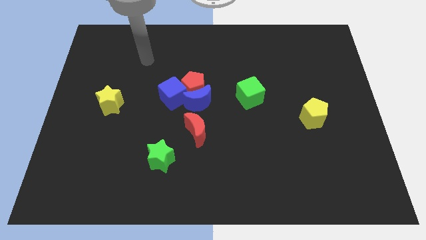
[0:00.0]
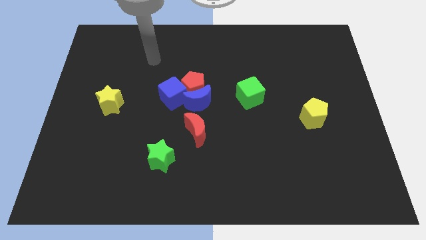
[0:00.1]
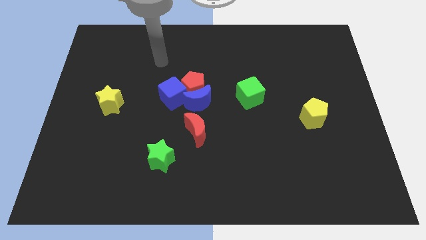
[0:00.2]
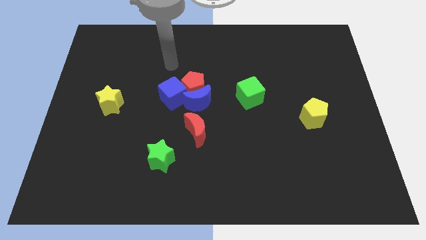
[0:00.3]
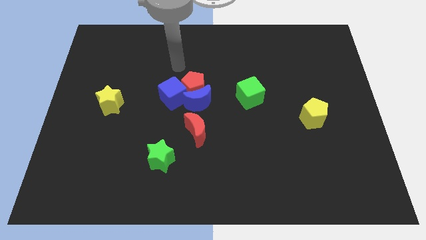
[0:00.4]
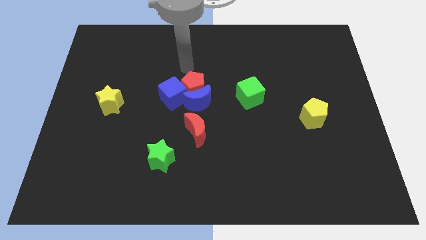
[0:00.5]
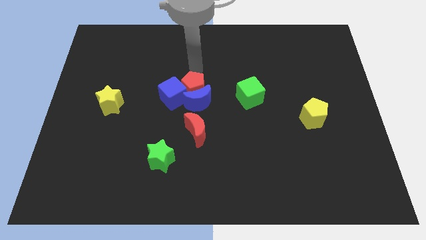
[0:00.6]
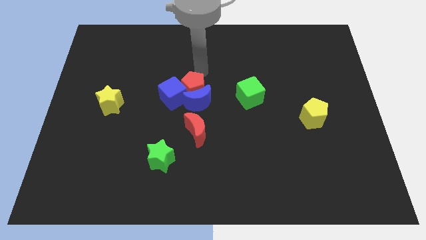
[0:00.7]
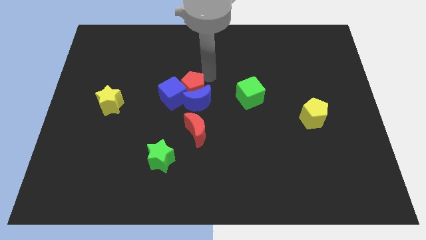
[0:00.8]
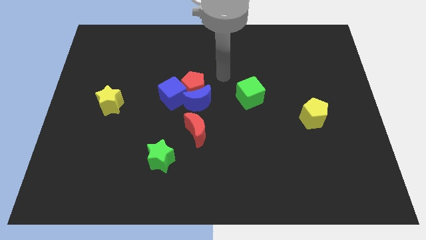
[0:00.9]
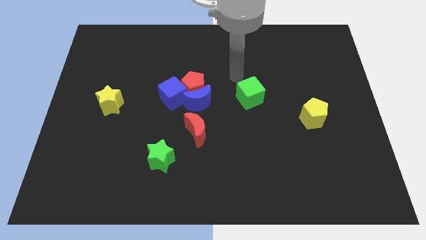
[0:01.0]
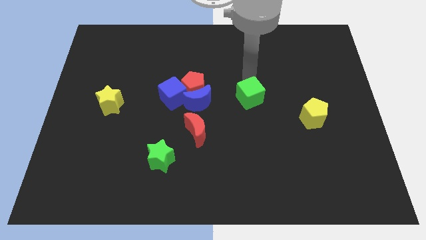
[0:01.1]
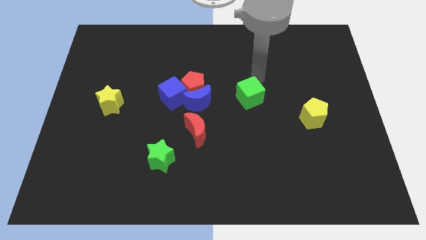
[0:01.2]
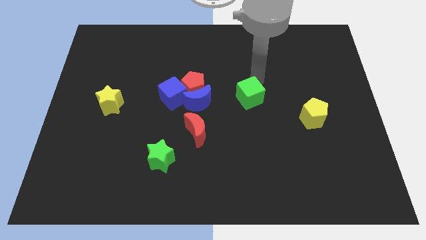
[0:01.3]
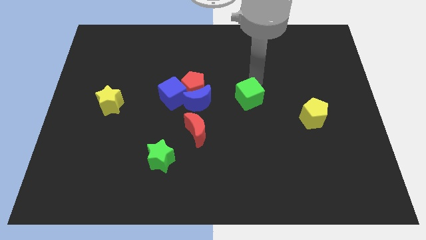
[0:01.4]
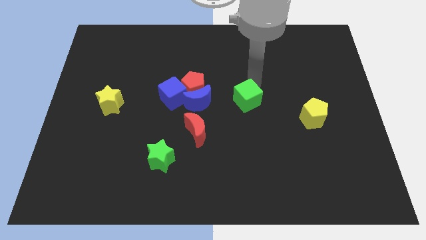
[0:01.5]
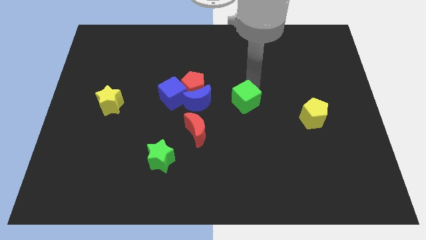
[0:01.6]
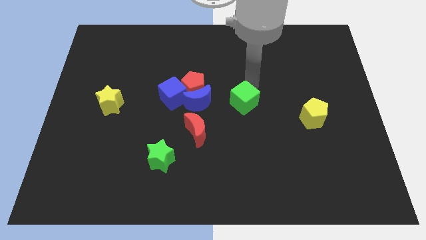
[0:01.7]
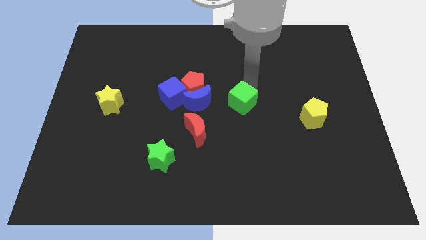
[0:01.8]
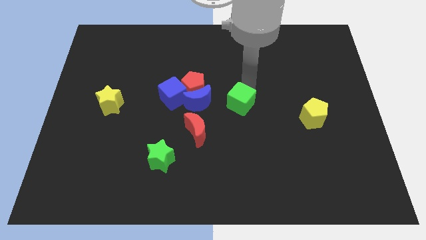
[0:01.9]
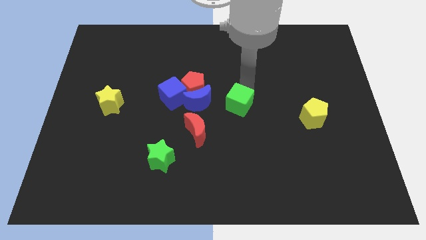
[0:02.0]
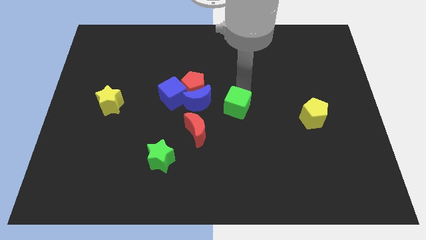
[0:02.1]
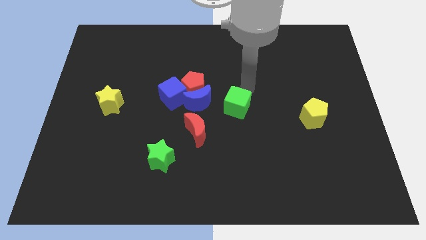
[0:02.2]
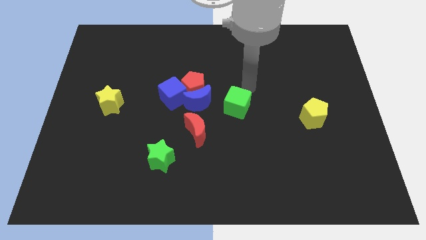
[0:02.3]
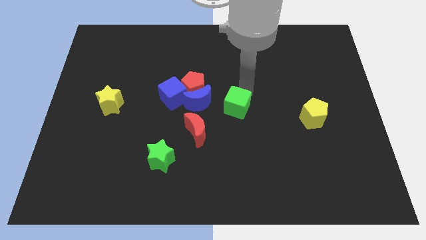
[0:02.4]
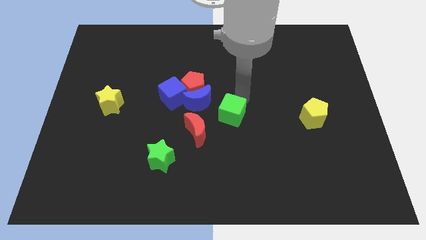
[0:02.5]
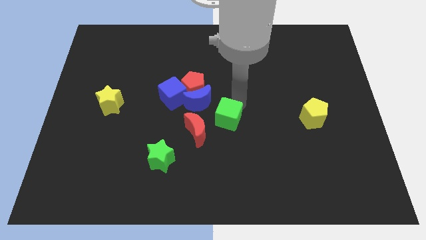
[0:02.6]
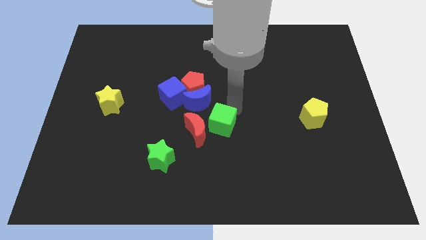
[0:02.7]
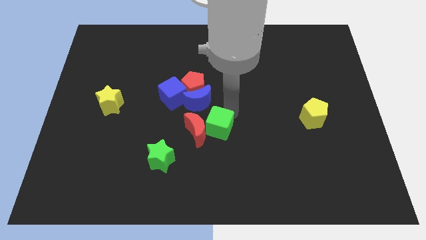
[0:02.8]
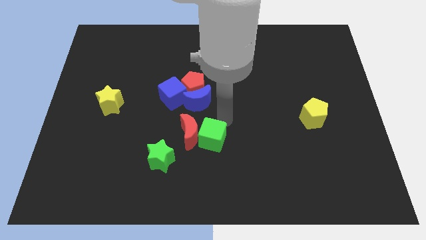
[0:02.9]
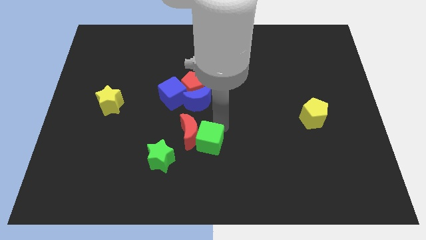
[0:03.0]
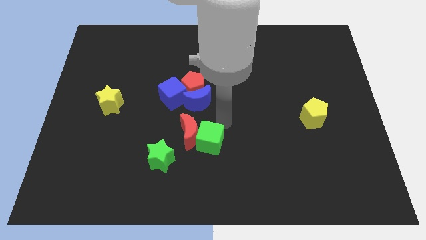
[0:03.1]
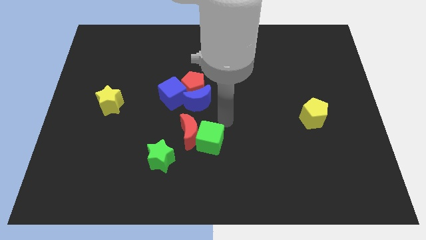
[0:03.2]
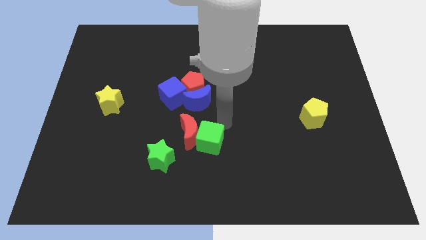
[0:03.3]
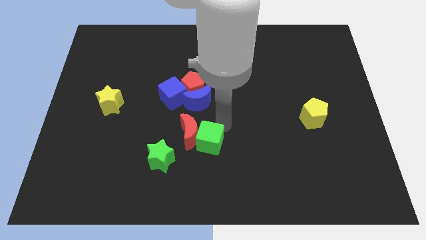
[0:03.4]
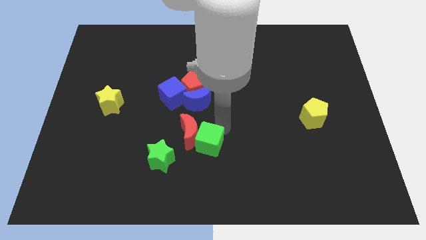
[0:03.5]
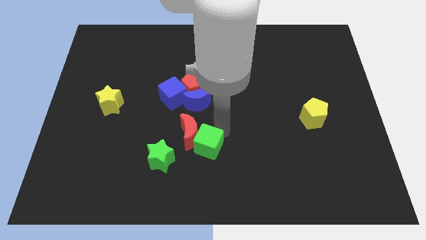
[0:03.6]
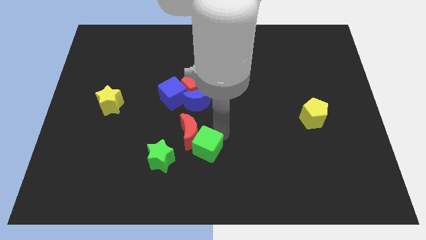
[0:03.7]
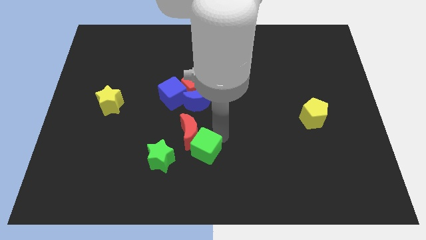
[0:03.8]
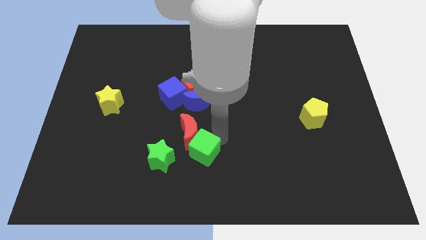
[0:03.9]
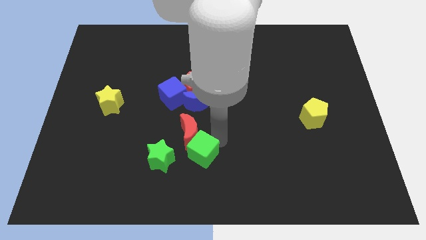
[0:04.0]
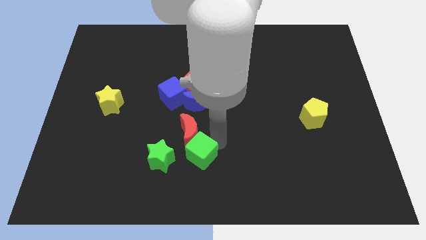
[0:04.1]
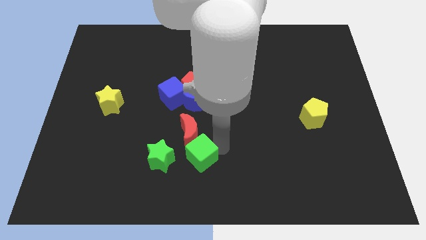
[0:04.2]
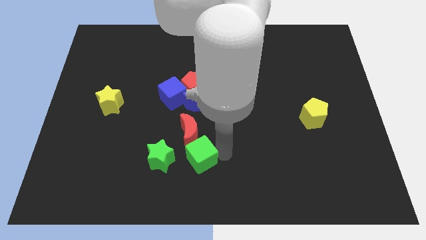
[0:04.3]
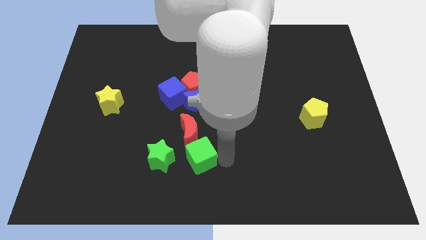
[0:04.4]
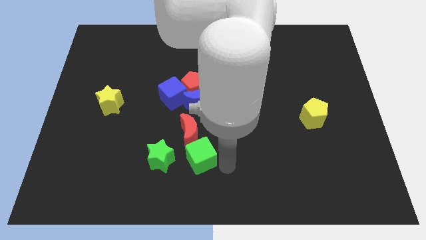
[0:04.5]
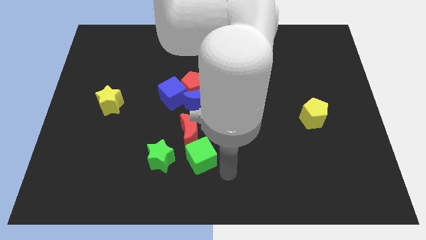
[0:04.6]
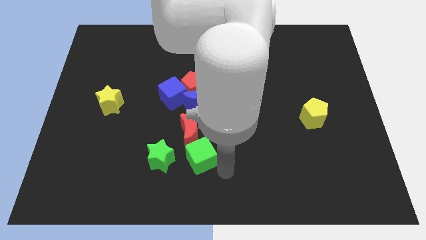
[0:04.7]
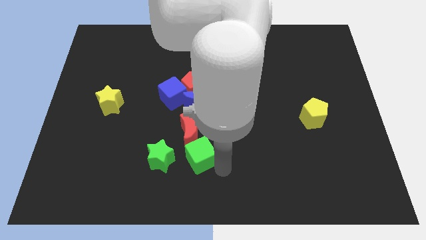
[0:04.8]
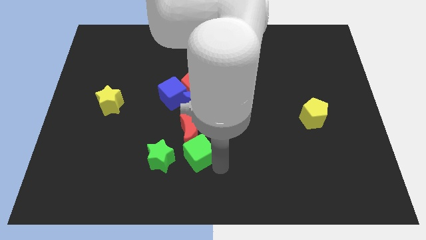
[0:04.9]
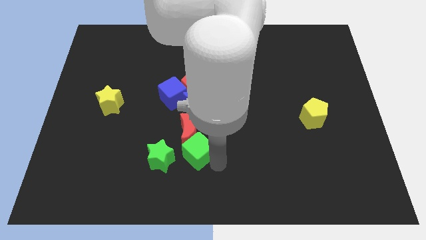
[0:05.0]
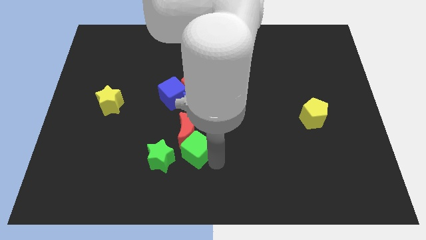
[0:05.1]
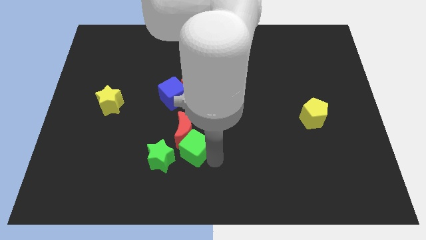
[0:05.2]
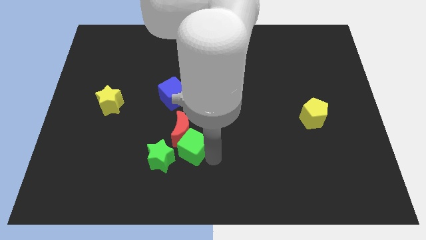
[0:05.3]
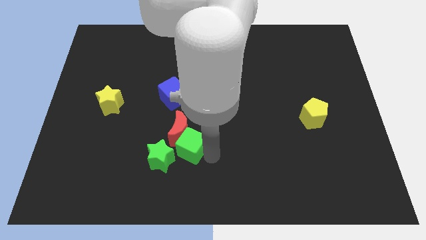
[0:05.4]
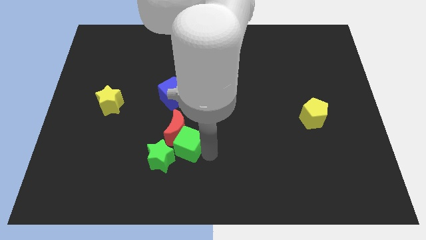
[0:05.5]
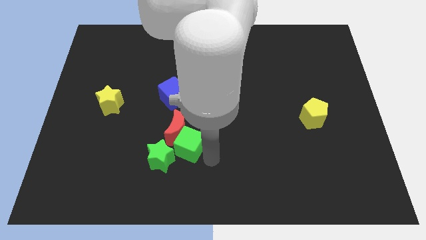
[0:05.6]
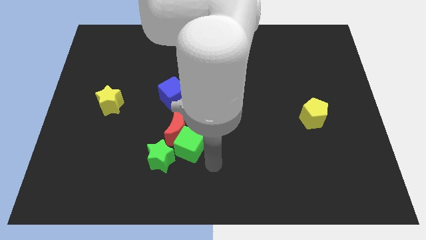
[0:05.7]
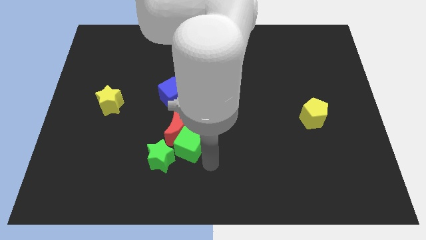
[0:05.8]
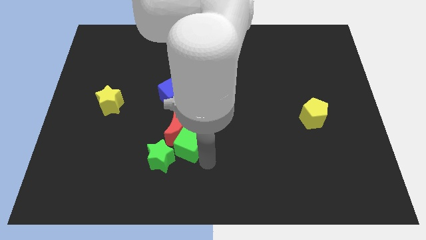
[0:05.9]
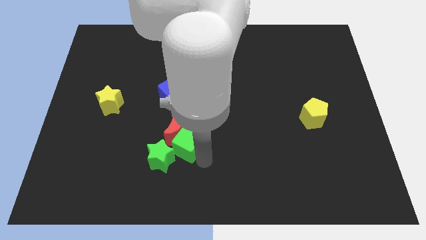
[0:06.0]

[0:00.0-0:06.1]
move the green cube to the bottom of the blue cube

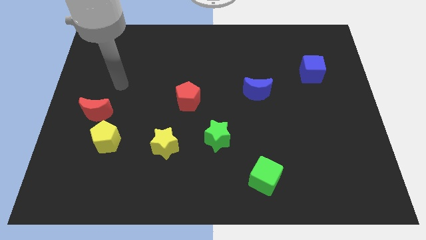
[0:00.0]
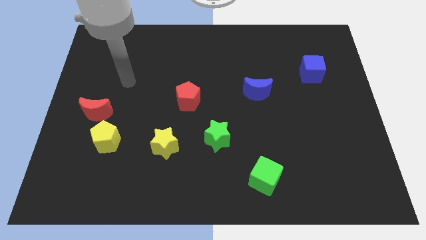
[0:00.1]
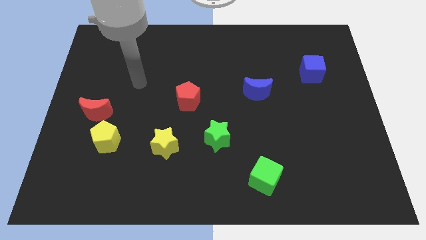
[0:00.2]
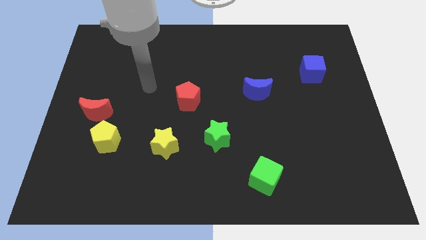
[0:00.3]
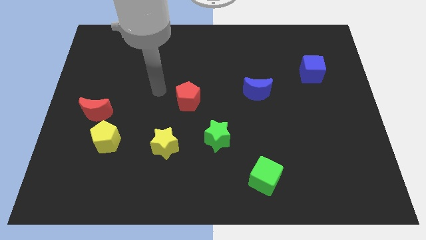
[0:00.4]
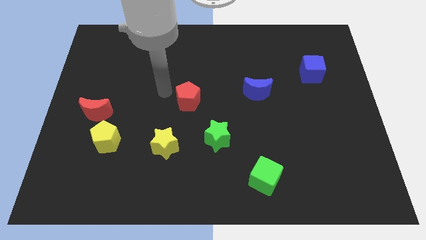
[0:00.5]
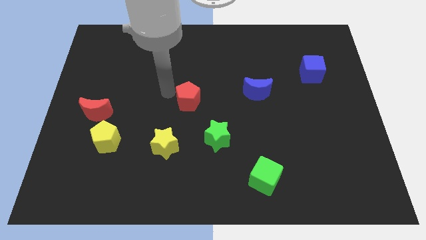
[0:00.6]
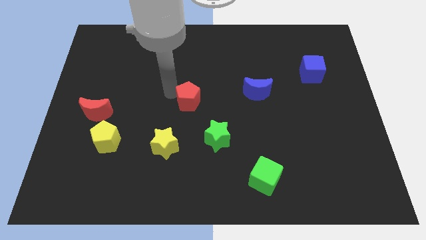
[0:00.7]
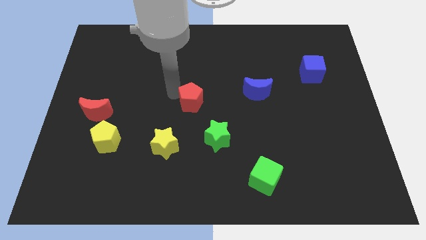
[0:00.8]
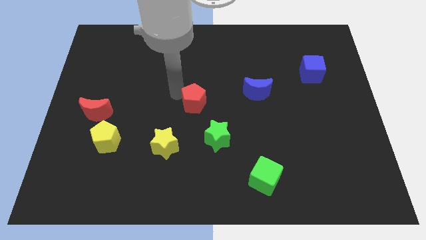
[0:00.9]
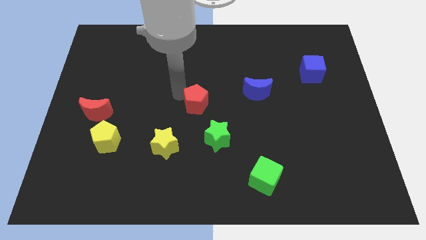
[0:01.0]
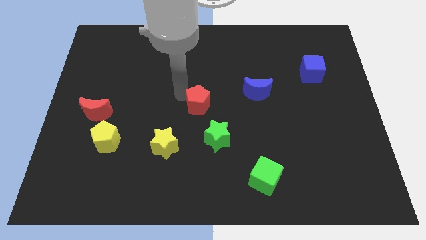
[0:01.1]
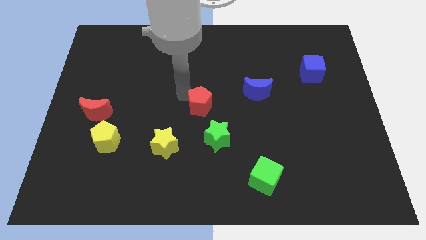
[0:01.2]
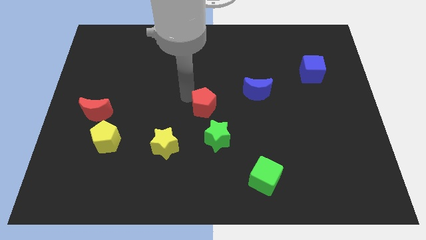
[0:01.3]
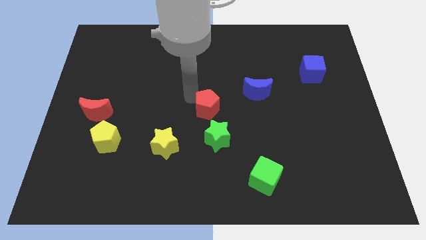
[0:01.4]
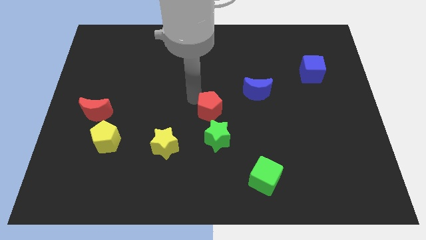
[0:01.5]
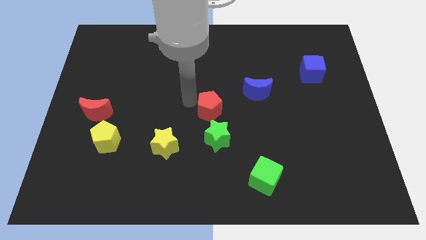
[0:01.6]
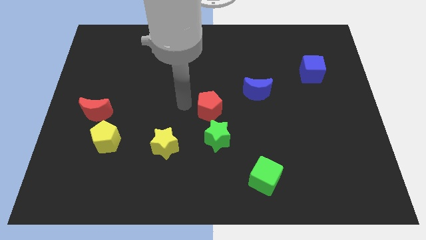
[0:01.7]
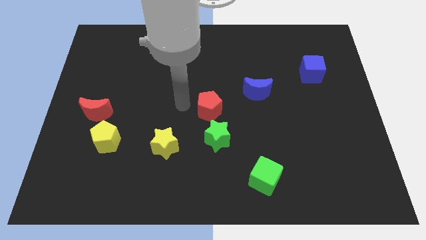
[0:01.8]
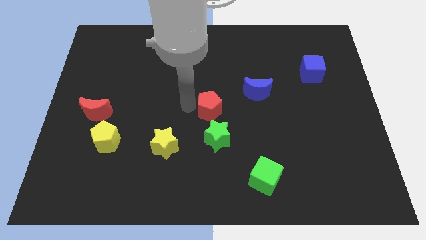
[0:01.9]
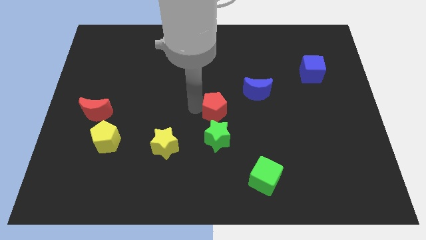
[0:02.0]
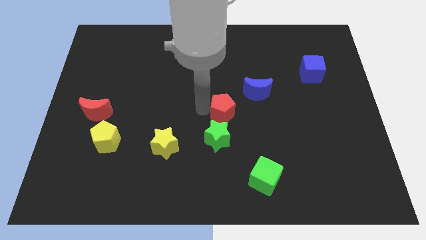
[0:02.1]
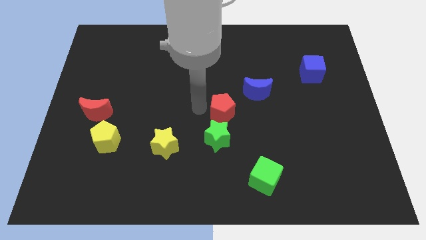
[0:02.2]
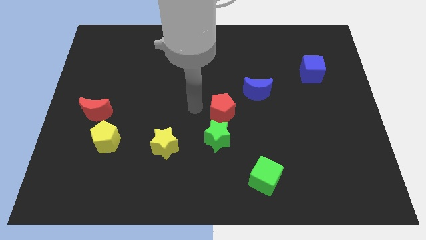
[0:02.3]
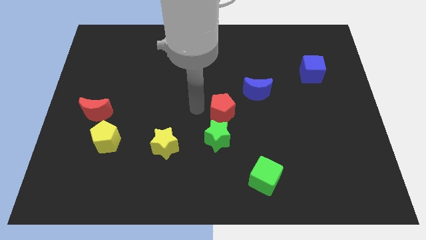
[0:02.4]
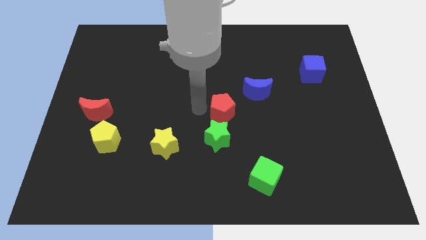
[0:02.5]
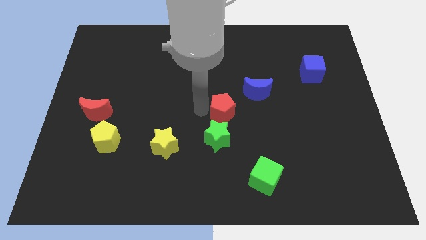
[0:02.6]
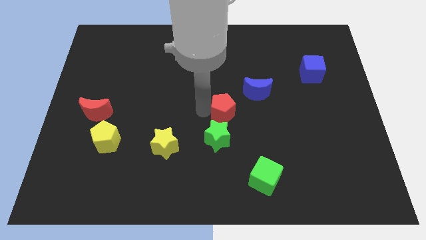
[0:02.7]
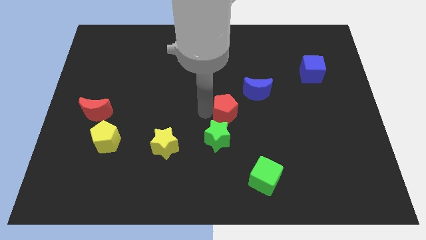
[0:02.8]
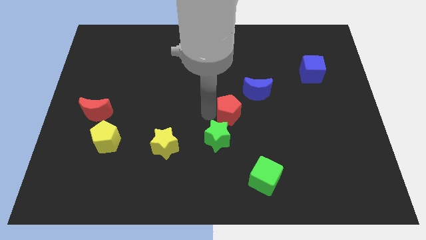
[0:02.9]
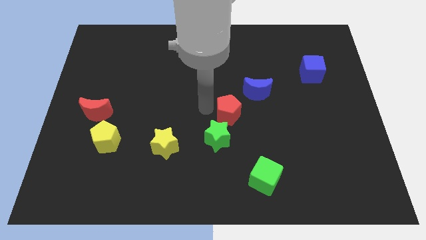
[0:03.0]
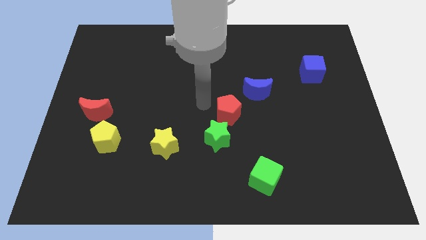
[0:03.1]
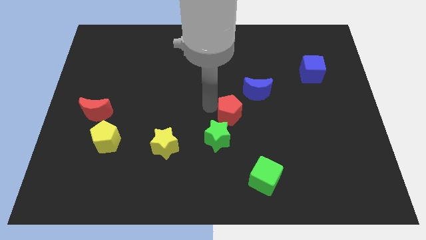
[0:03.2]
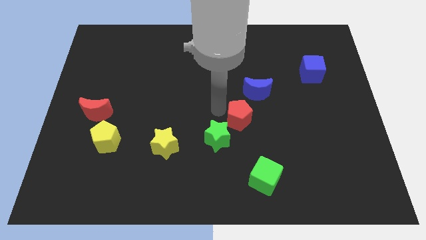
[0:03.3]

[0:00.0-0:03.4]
push the red pentagon to the bottom of the blue moon
